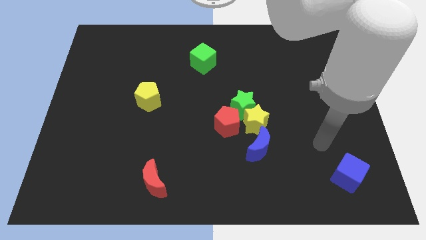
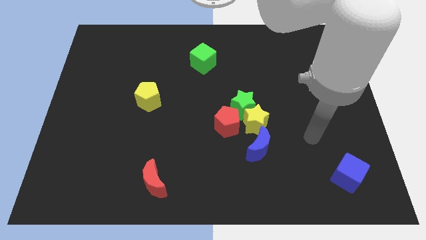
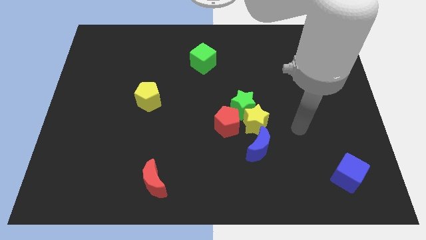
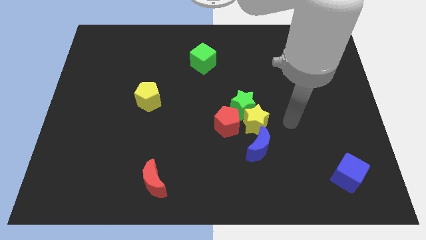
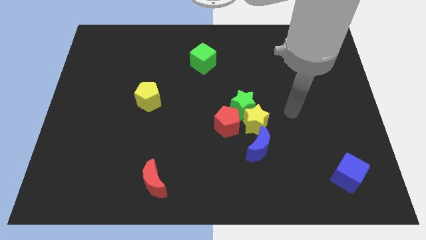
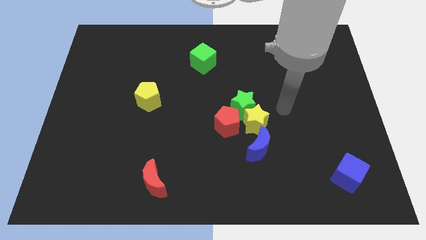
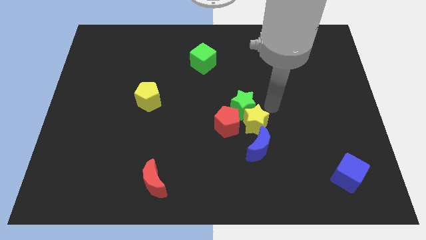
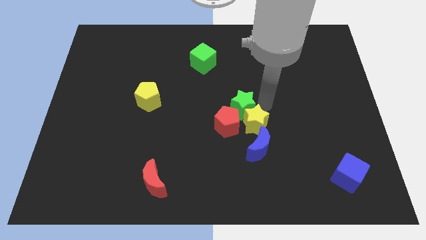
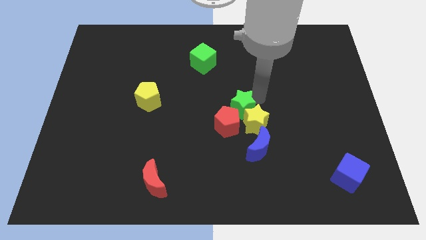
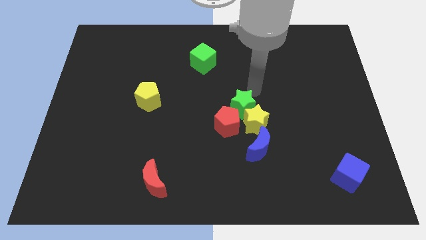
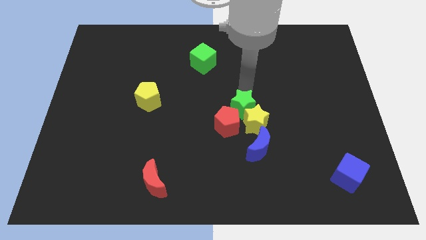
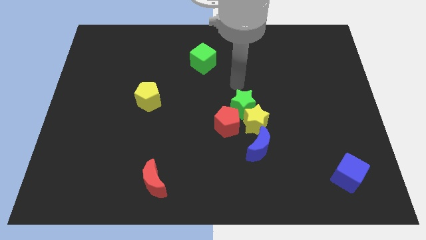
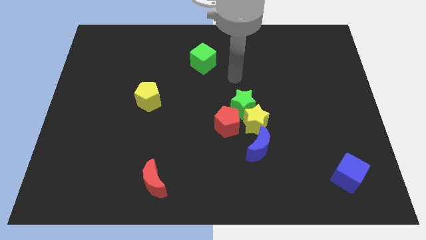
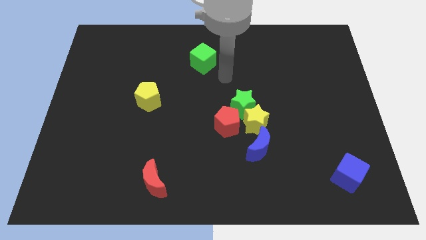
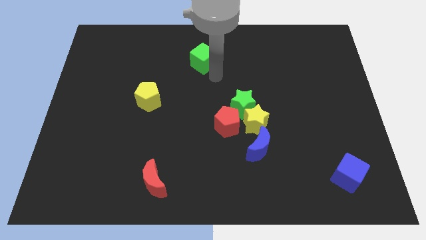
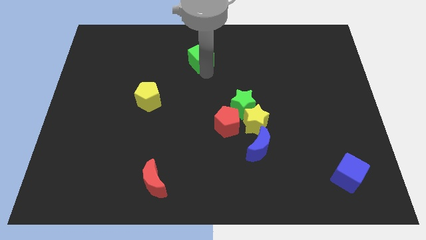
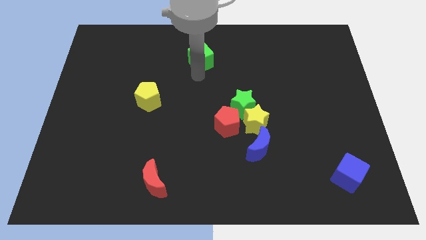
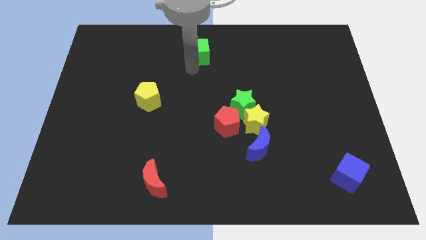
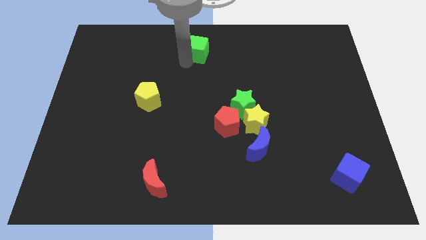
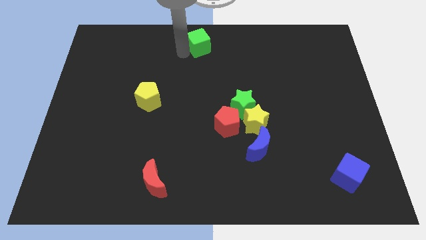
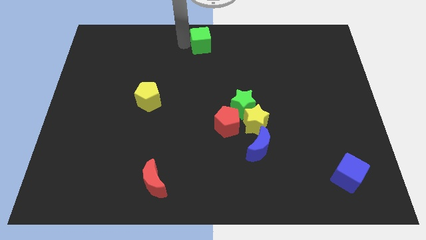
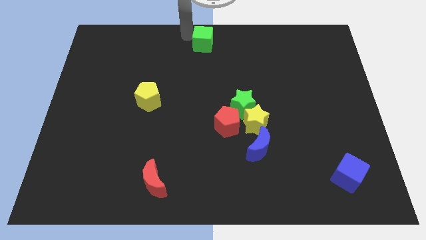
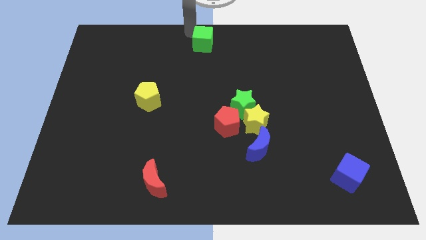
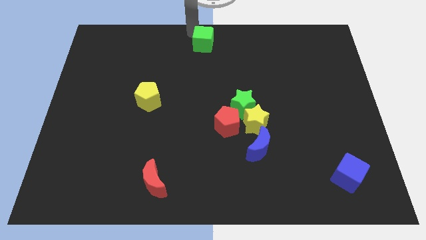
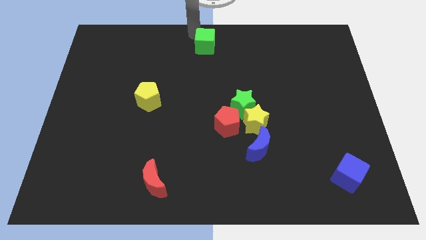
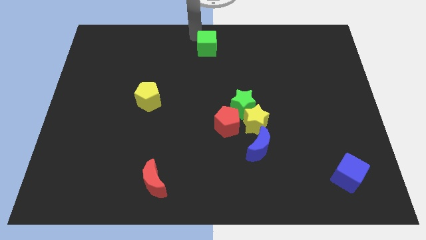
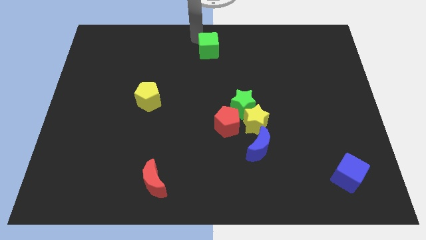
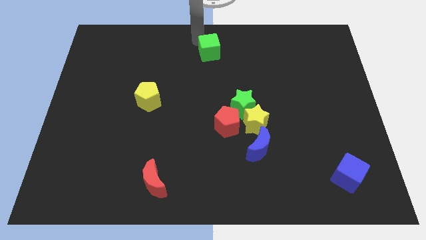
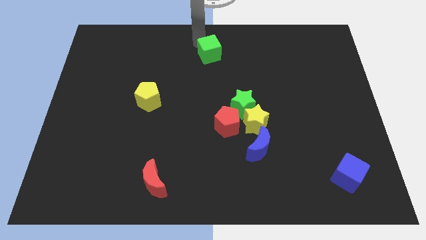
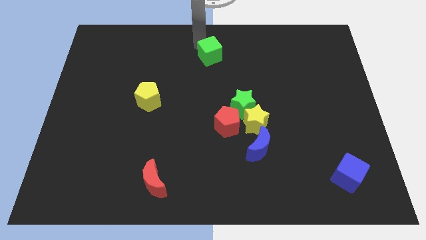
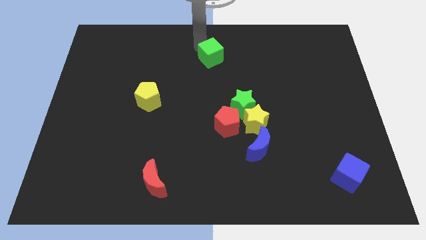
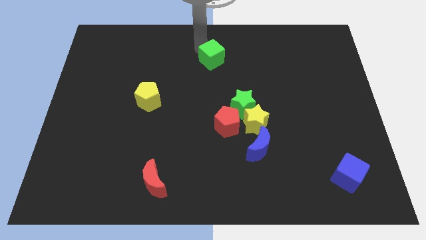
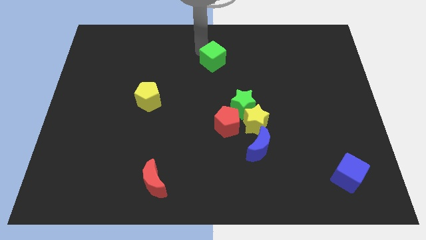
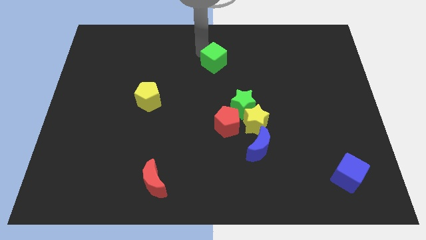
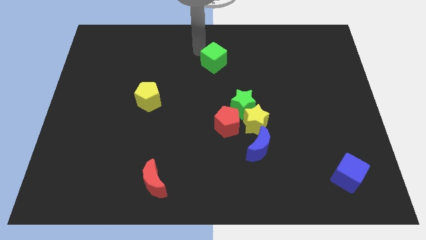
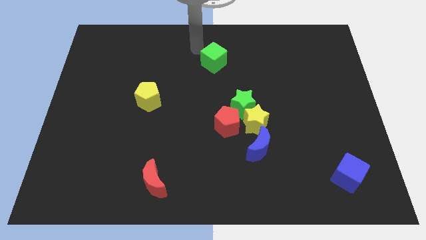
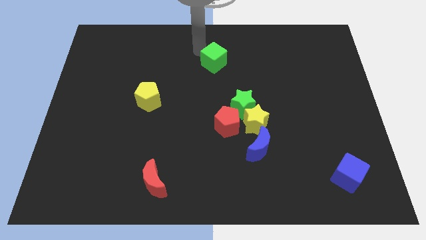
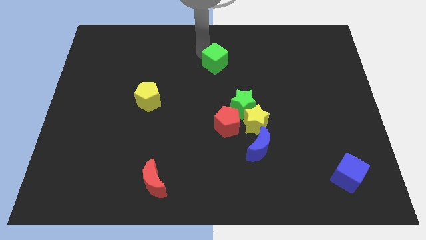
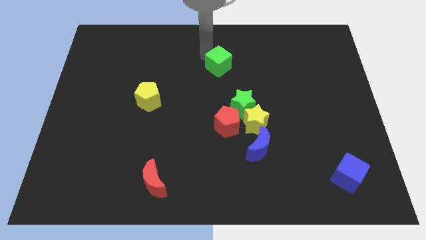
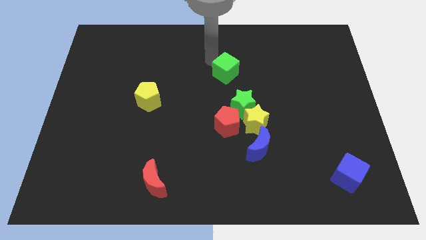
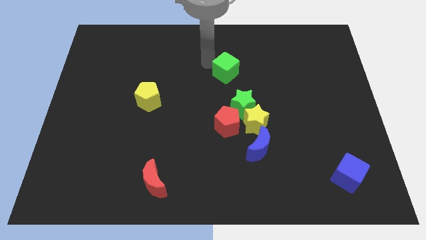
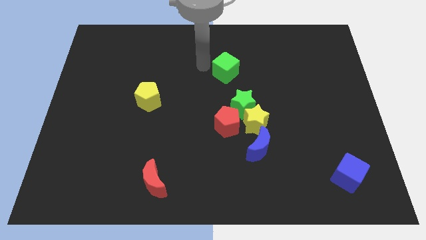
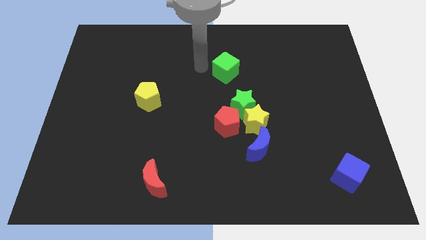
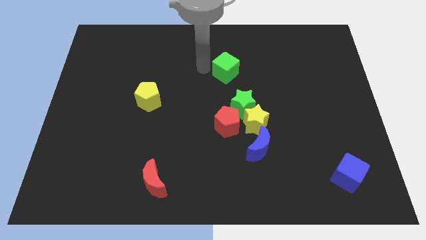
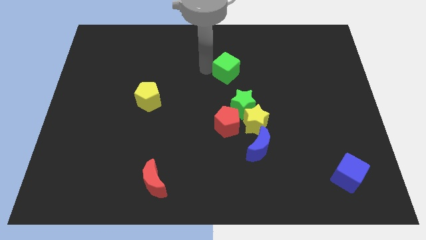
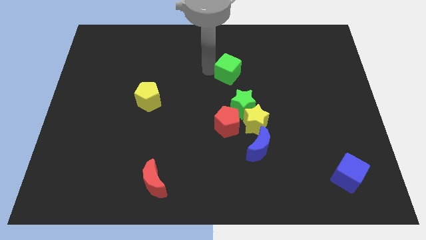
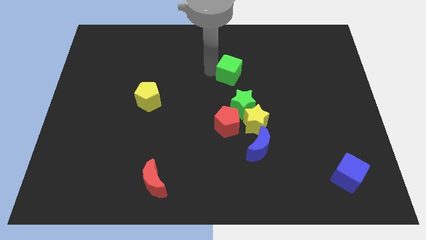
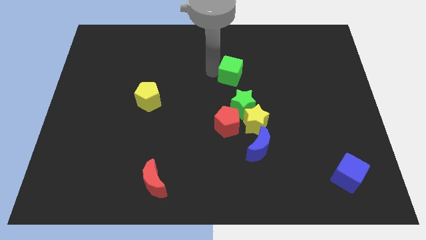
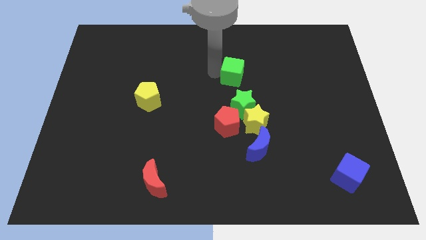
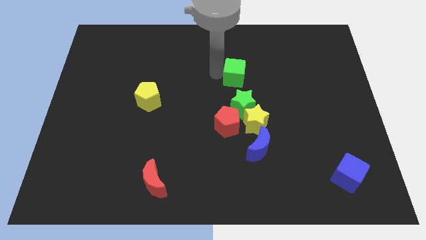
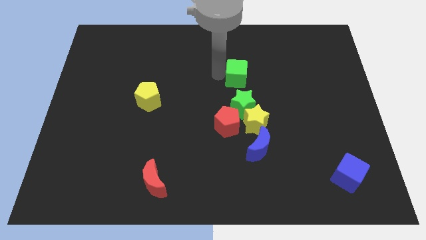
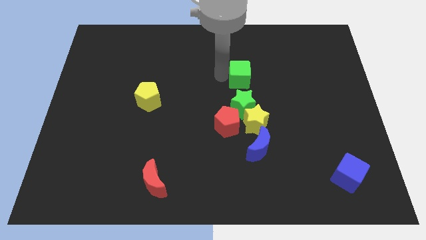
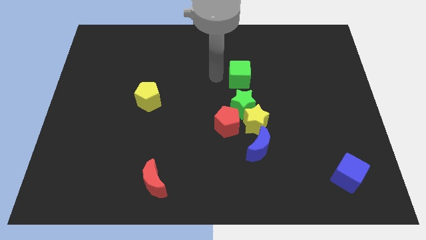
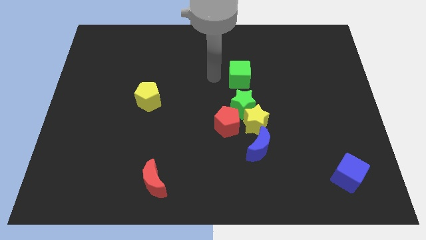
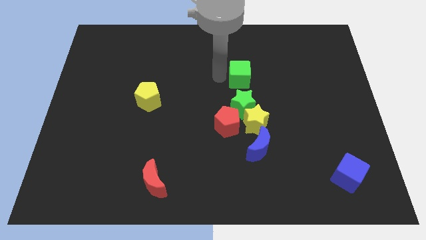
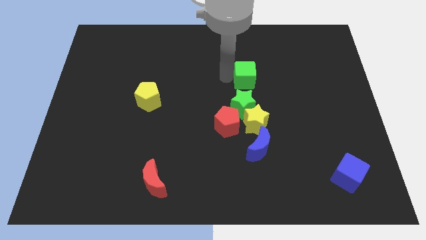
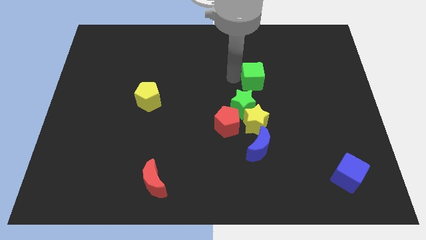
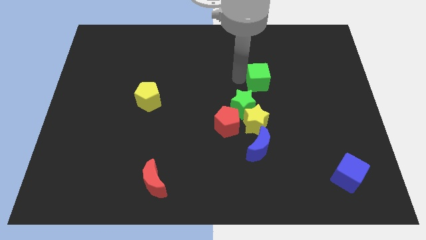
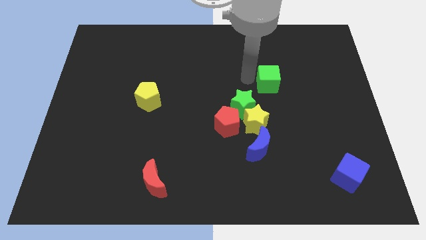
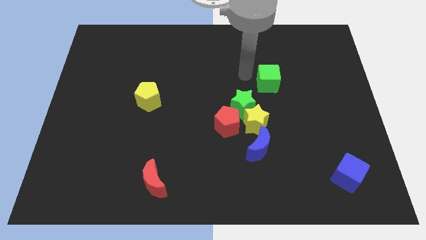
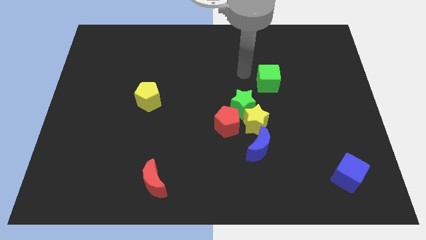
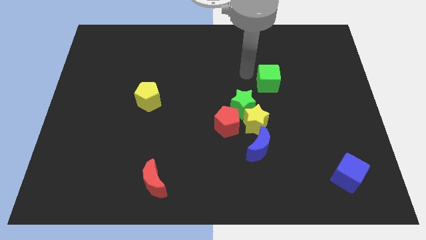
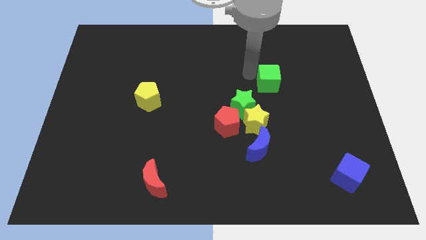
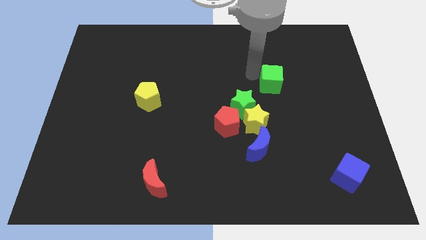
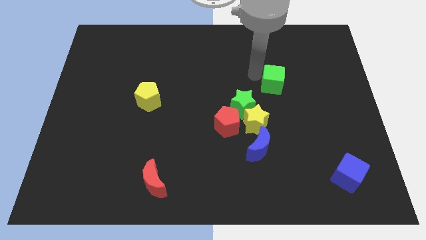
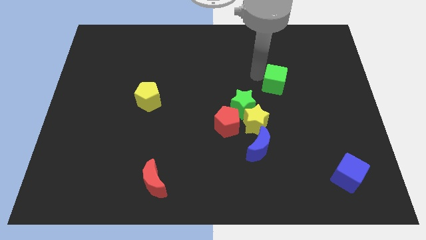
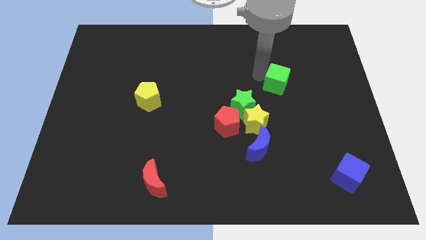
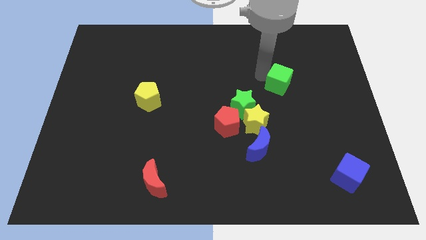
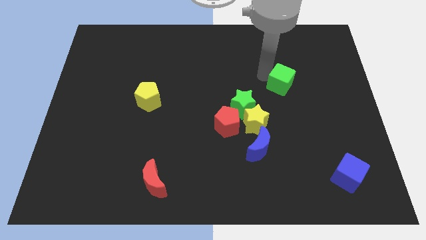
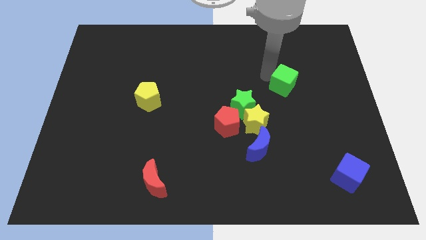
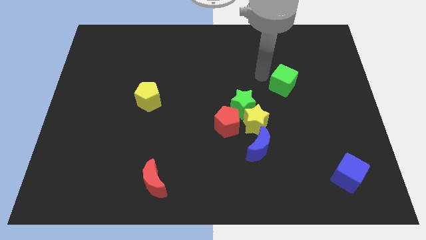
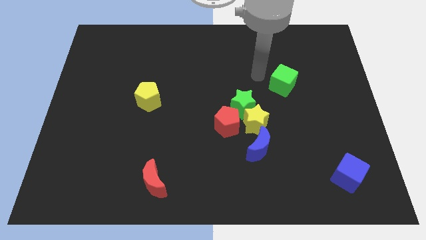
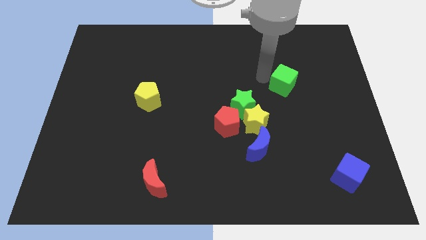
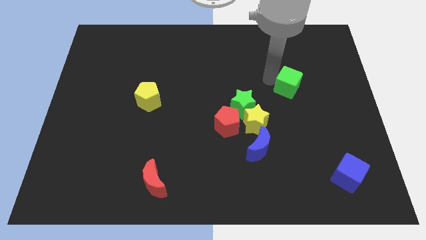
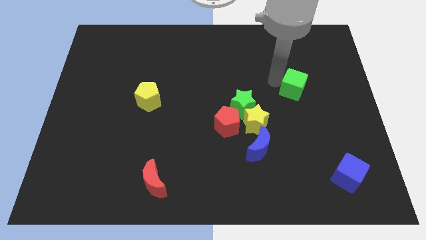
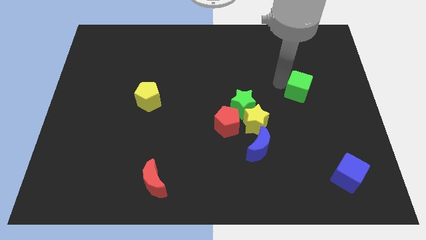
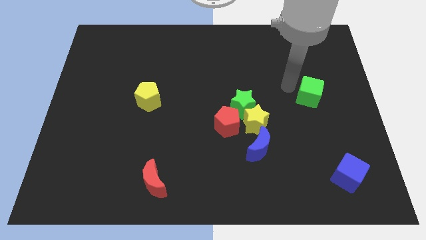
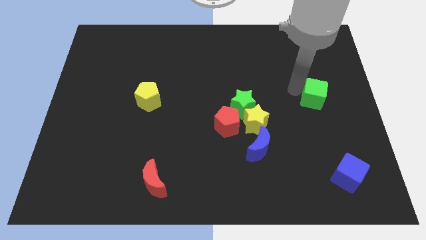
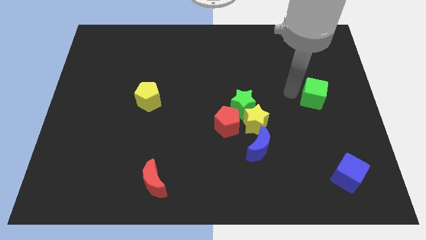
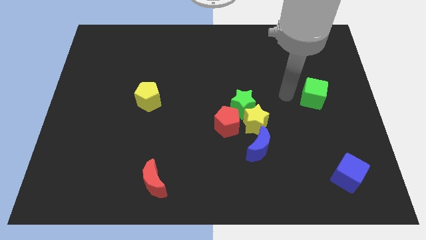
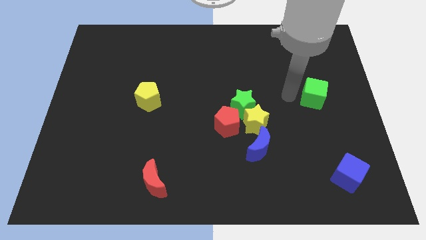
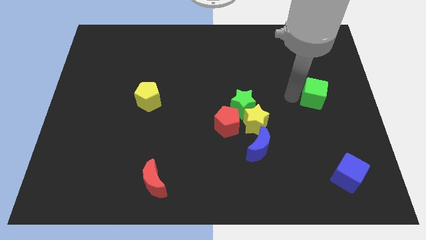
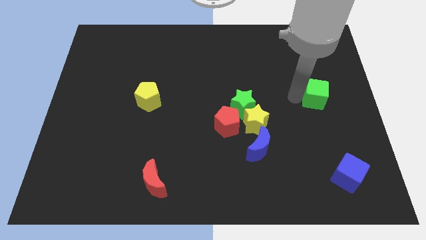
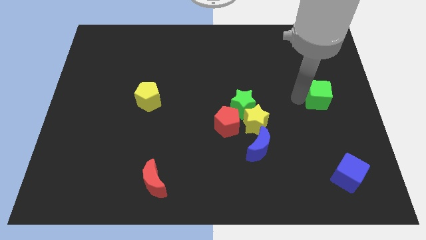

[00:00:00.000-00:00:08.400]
put the green cube to the right side
